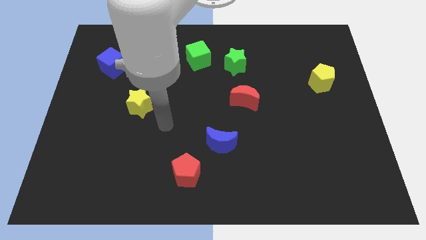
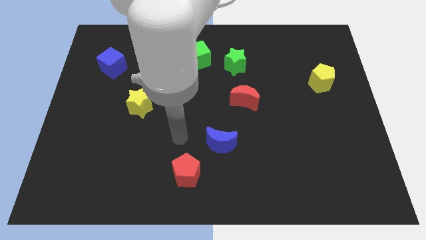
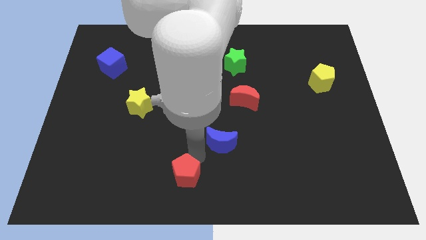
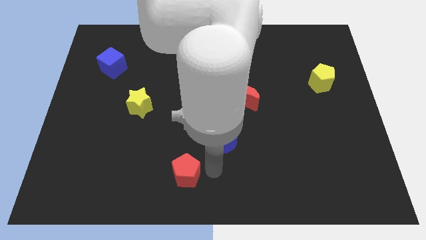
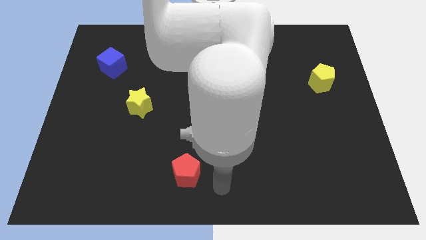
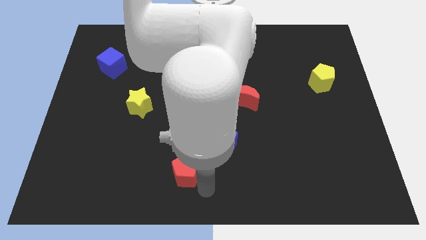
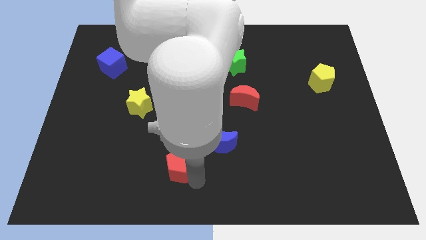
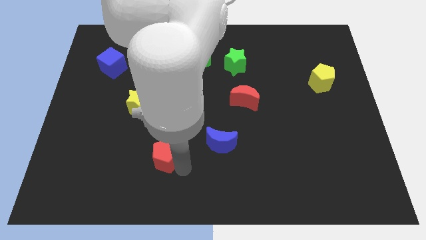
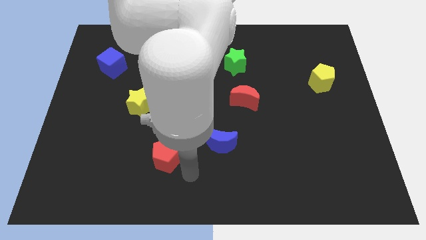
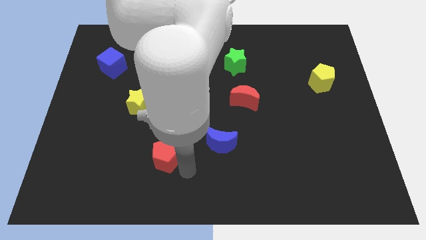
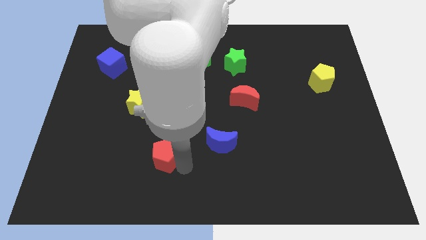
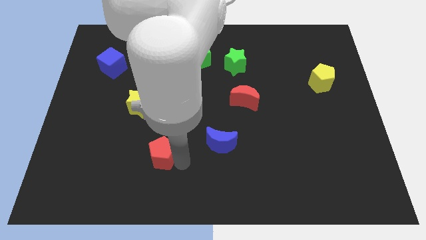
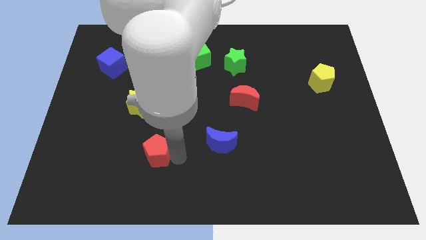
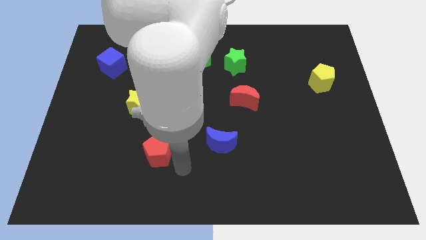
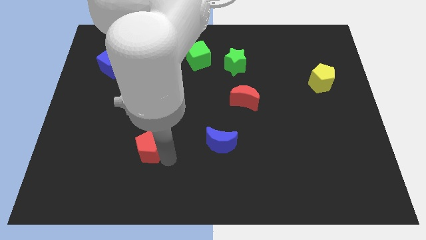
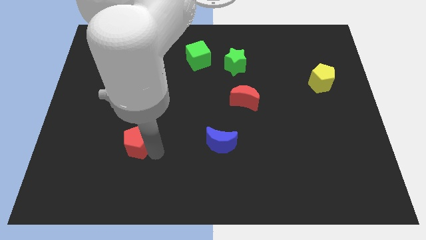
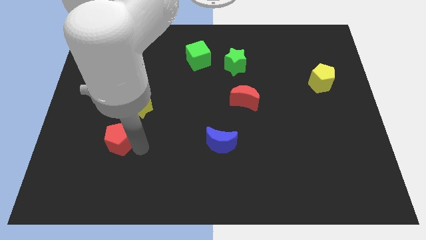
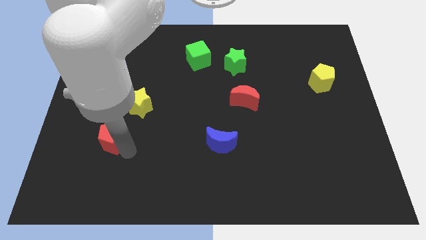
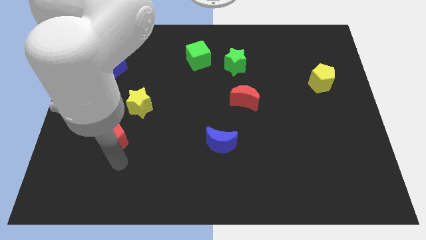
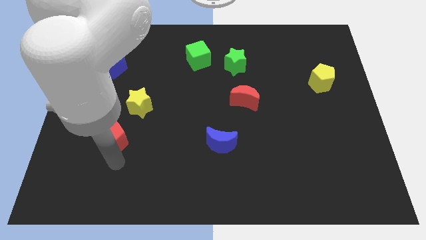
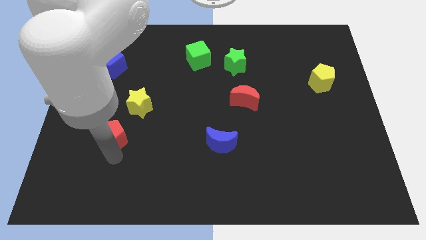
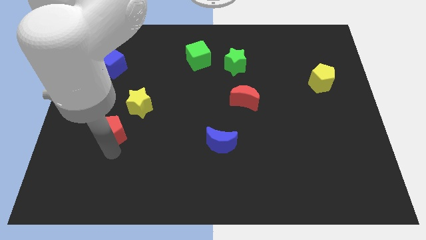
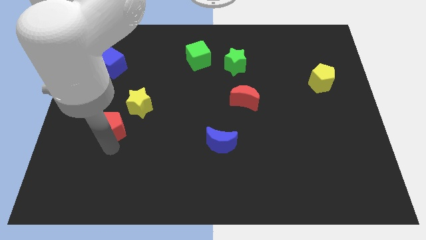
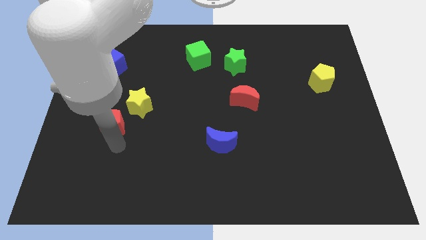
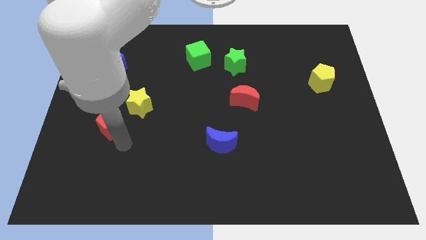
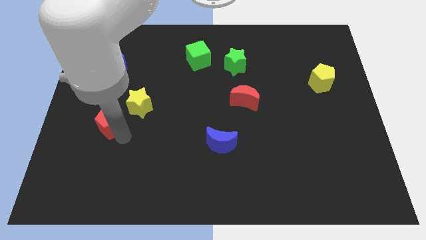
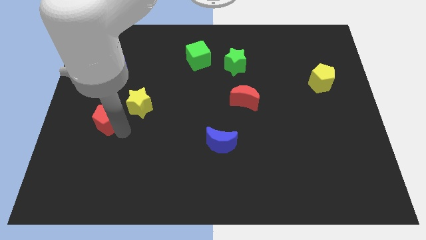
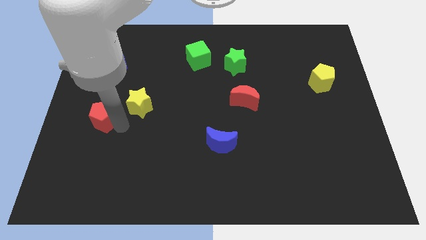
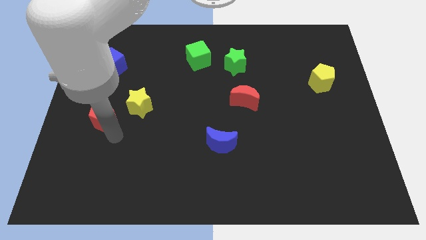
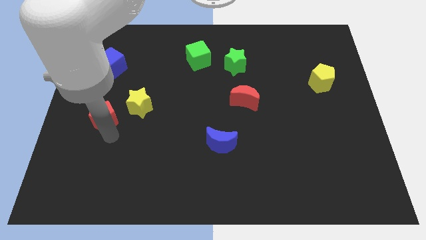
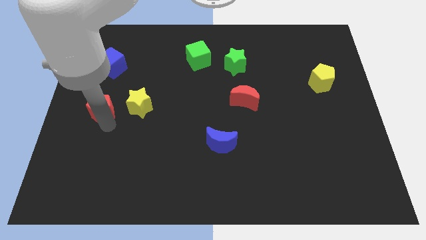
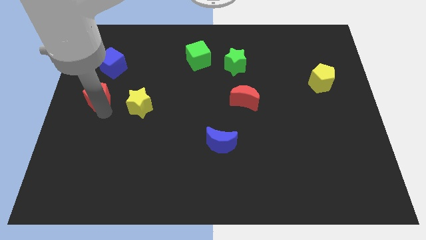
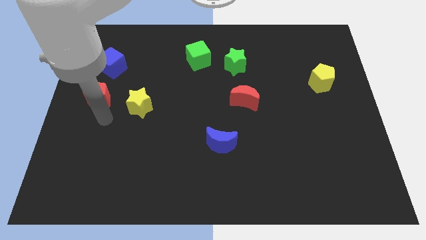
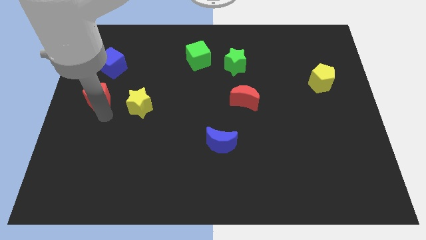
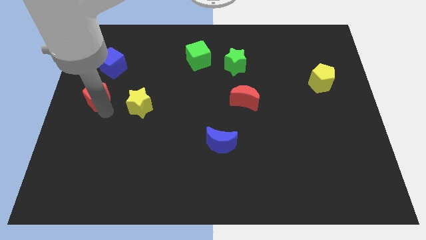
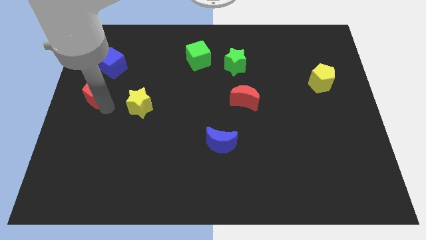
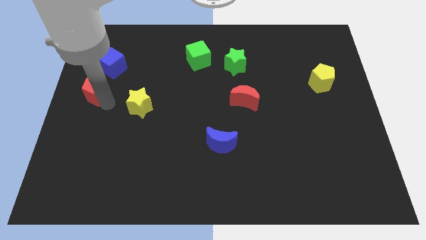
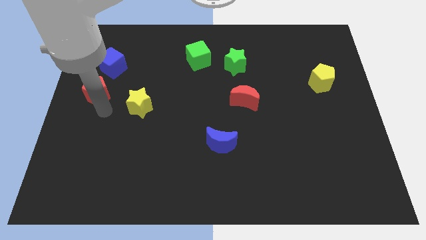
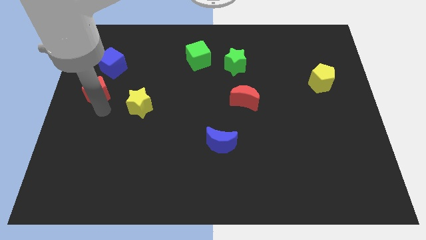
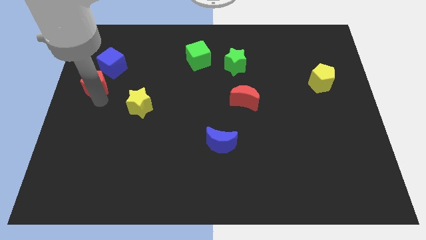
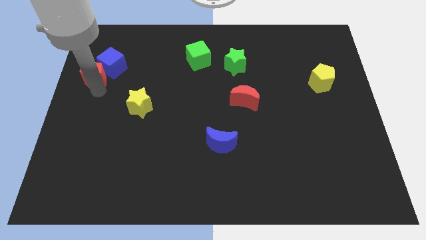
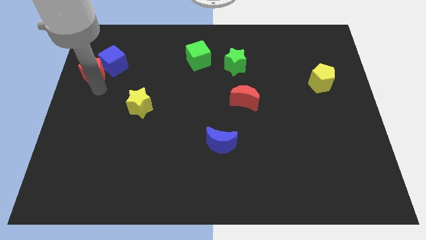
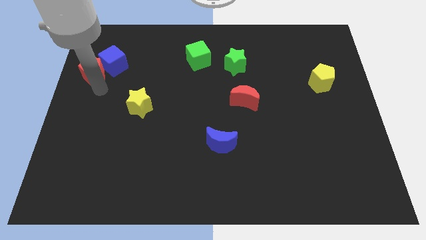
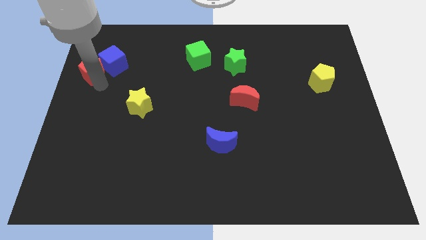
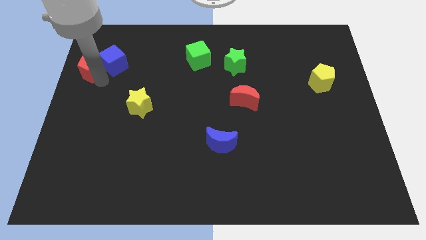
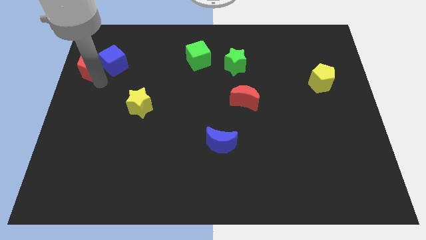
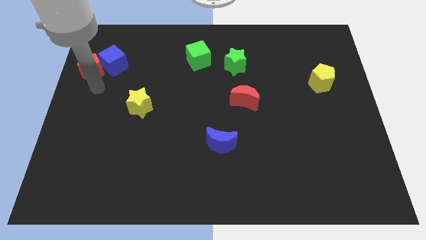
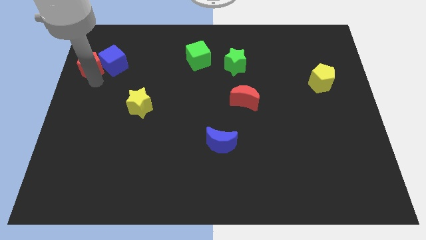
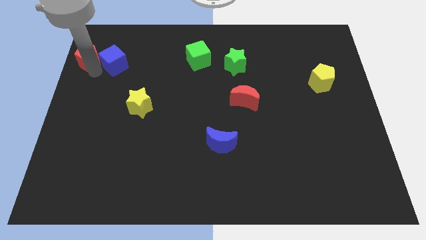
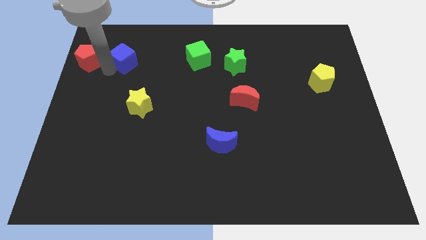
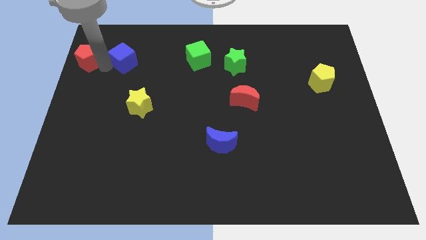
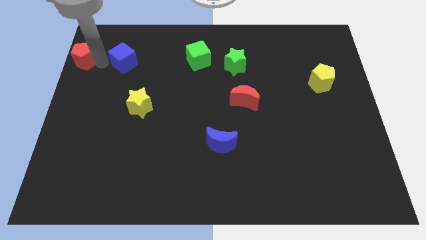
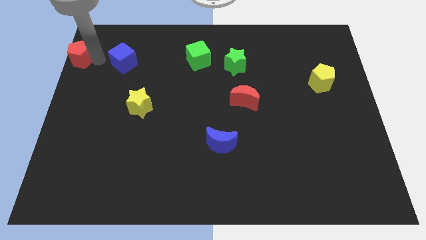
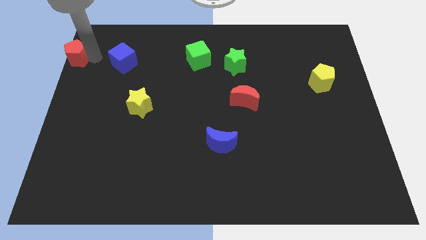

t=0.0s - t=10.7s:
move the red pentagon to the upper left corner

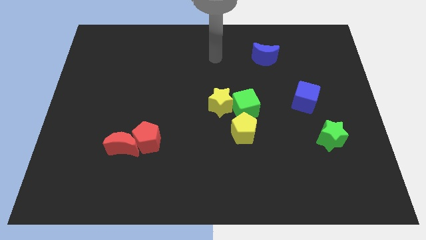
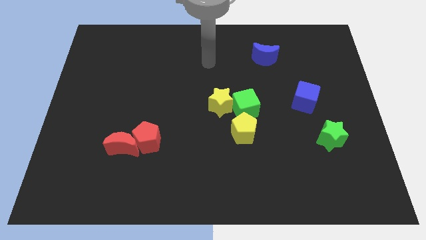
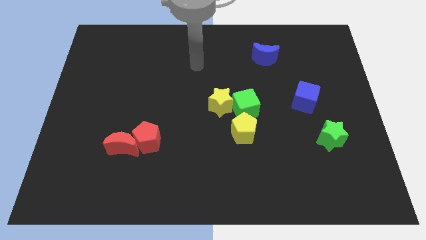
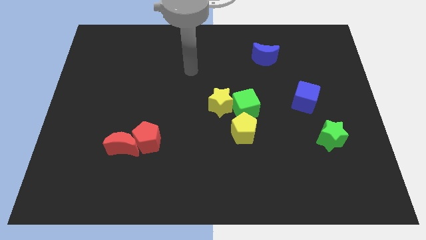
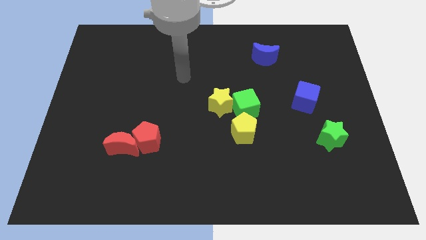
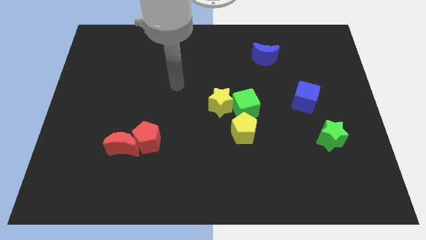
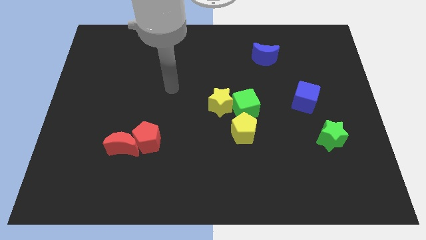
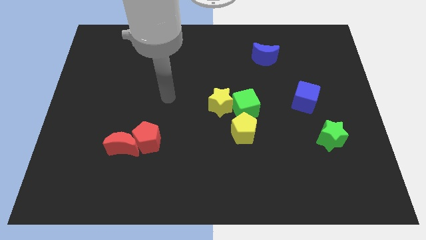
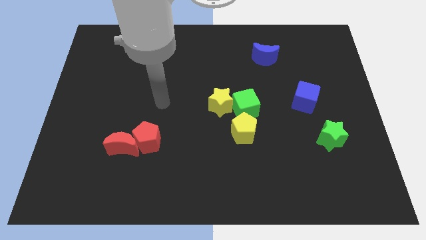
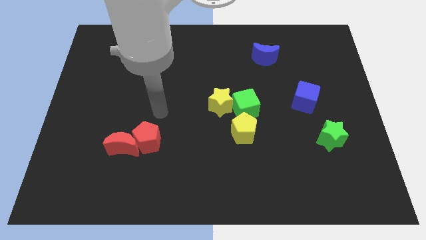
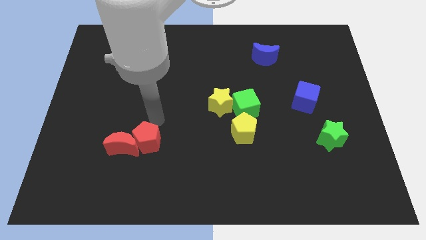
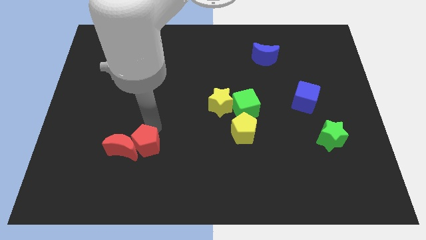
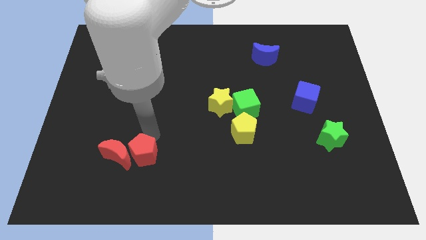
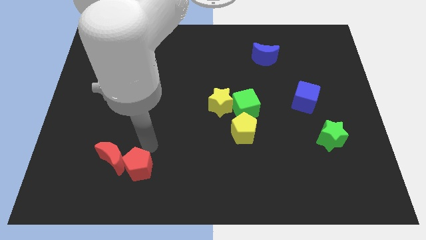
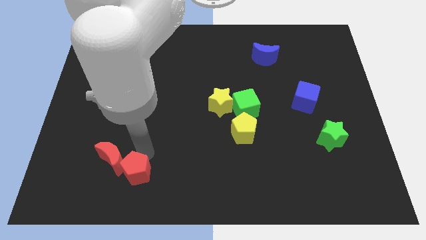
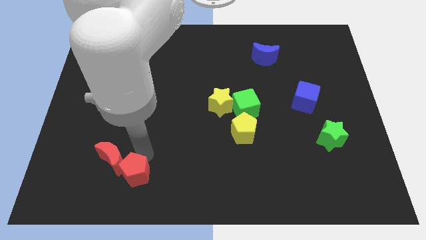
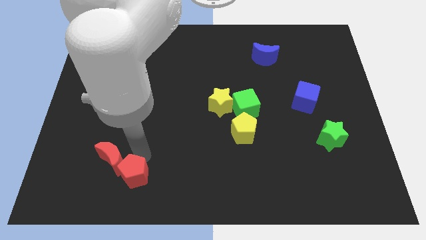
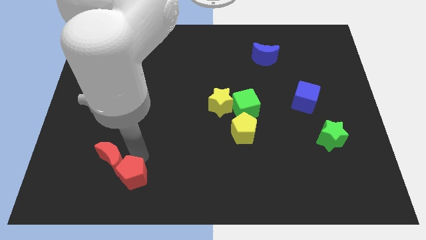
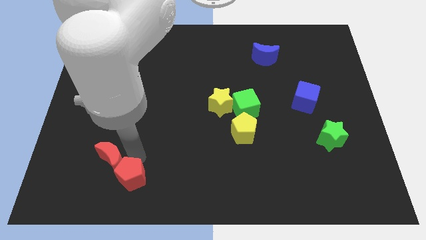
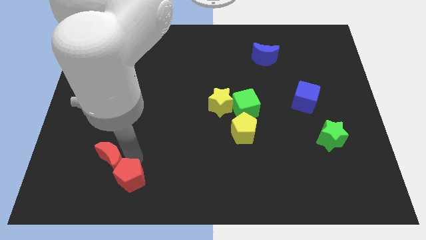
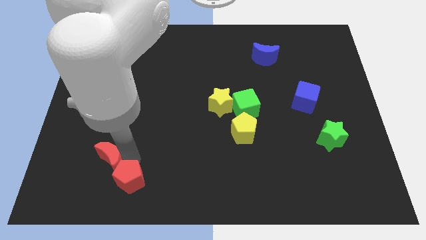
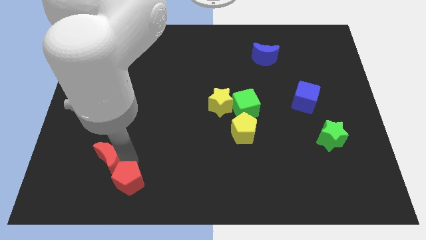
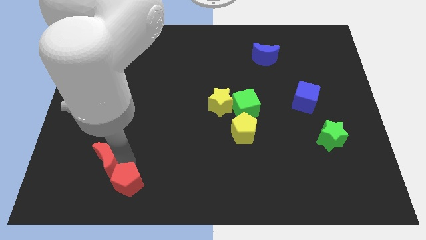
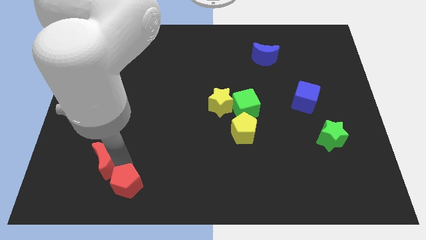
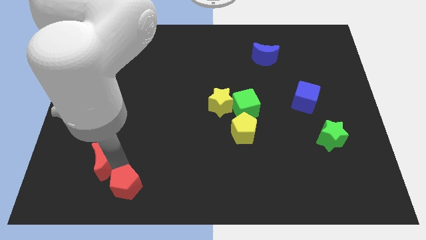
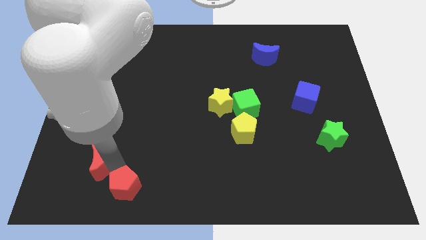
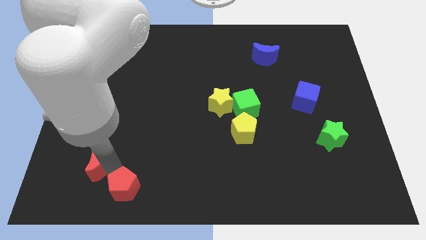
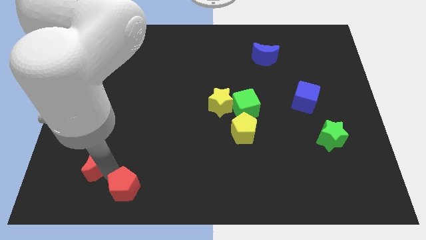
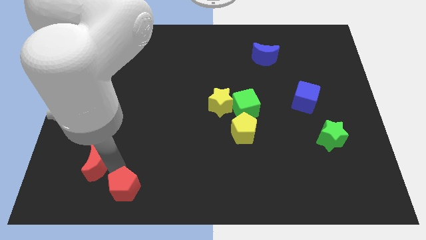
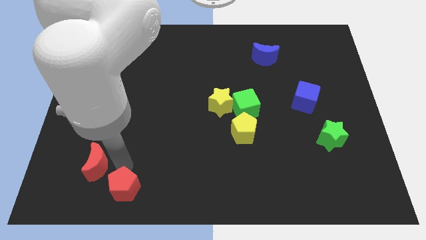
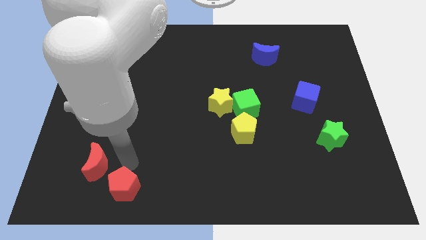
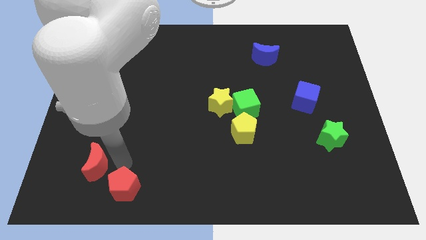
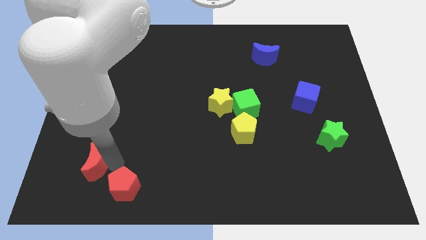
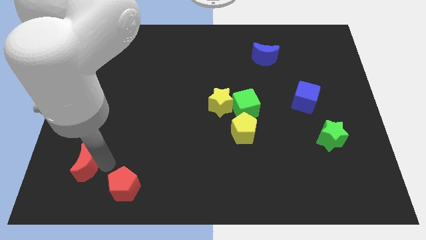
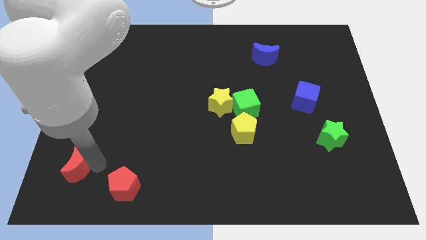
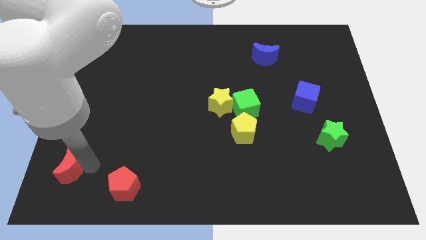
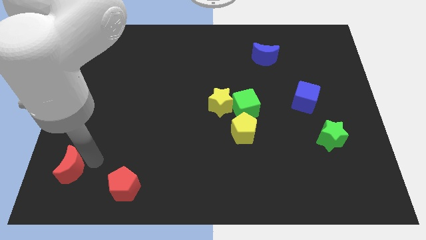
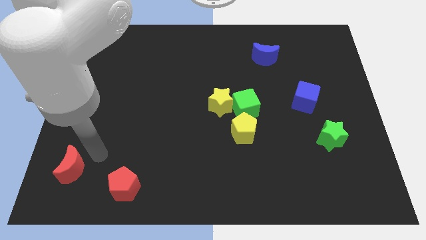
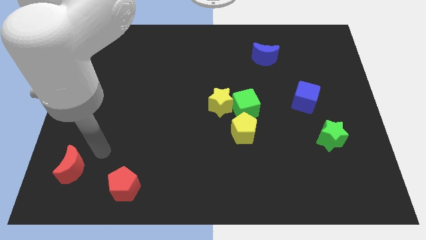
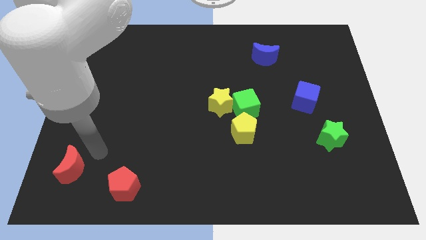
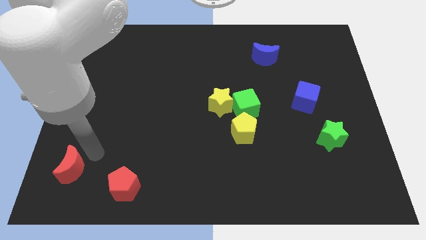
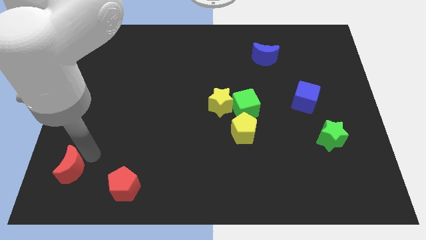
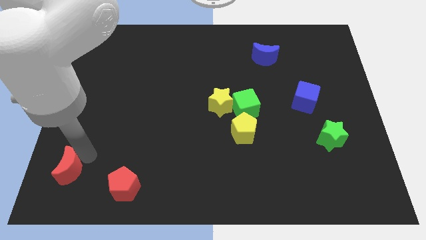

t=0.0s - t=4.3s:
push the red moon to the bottom left corner
